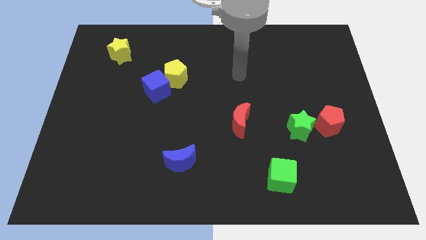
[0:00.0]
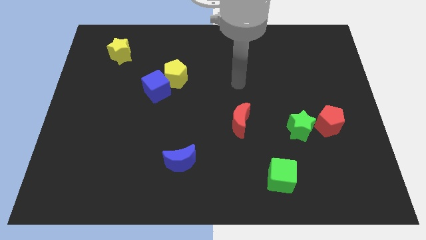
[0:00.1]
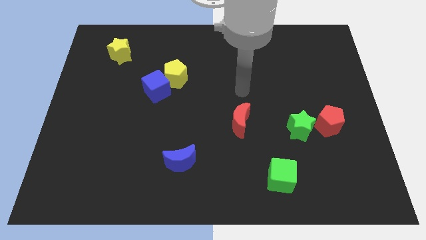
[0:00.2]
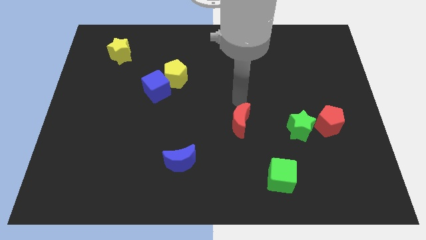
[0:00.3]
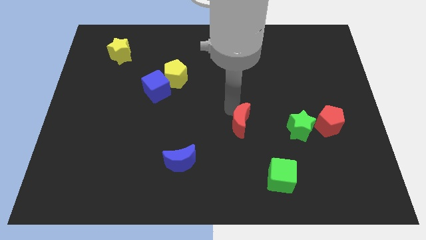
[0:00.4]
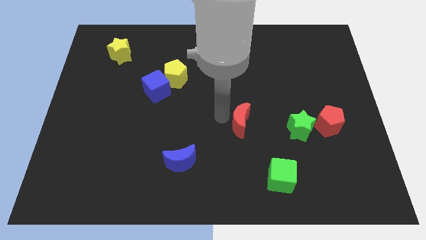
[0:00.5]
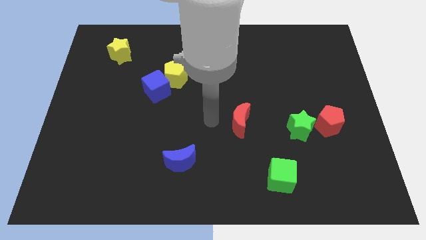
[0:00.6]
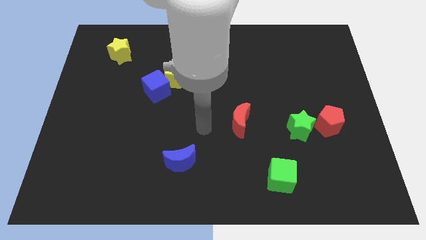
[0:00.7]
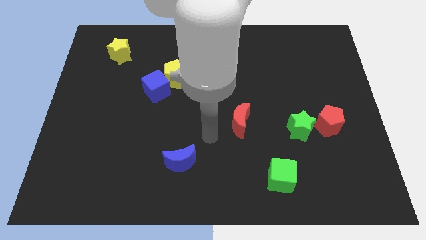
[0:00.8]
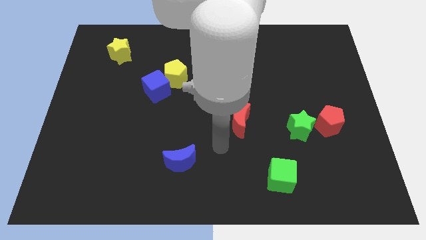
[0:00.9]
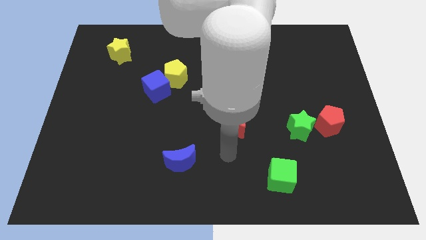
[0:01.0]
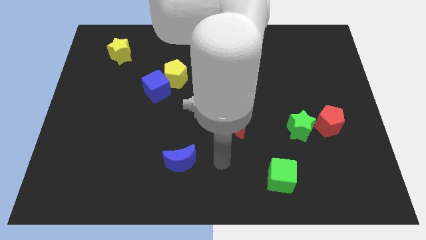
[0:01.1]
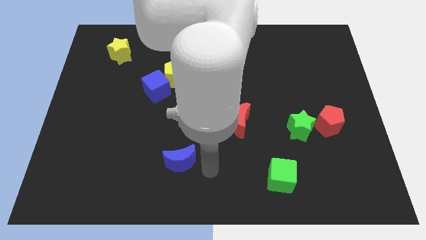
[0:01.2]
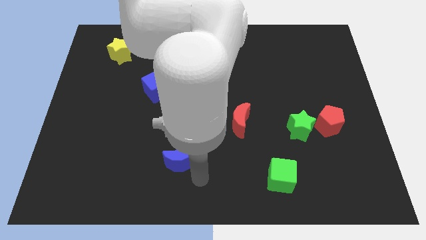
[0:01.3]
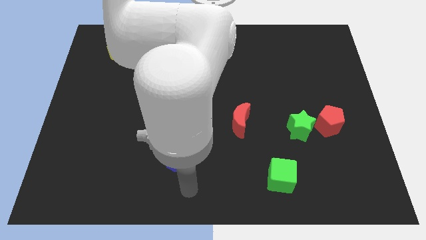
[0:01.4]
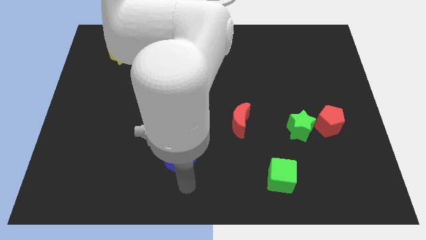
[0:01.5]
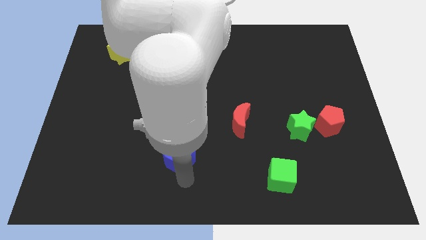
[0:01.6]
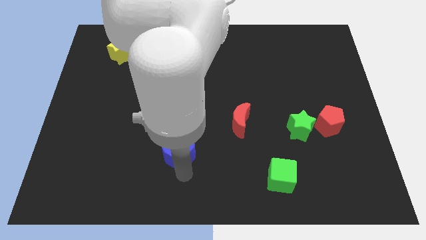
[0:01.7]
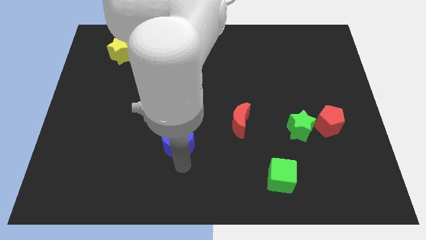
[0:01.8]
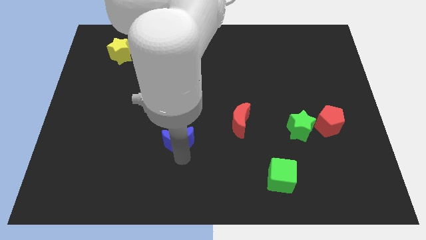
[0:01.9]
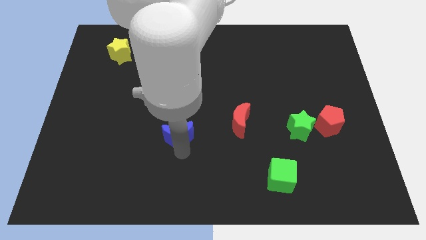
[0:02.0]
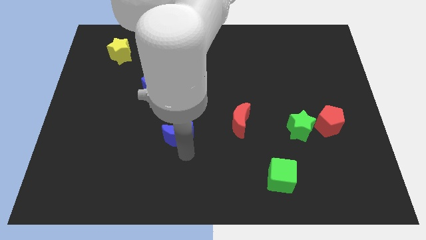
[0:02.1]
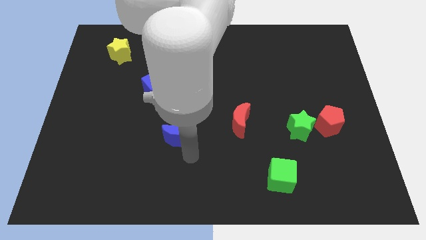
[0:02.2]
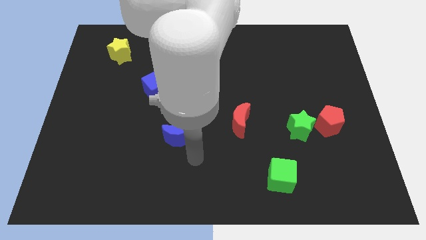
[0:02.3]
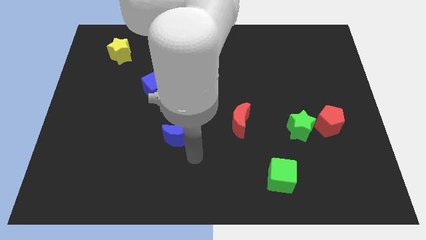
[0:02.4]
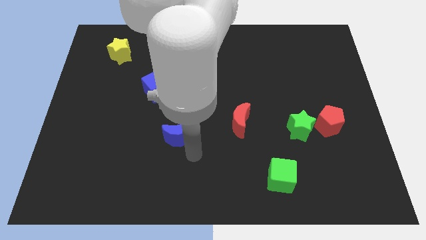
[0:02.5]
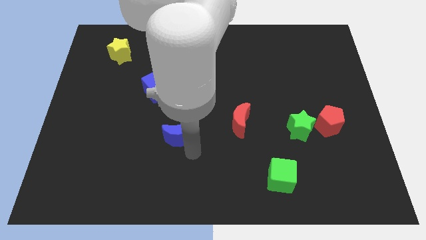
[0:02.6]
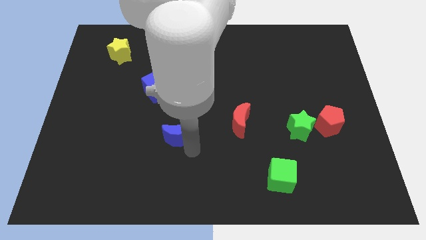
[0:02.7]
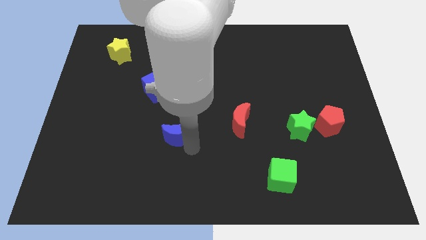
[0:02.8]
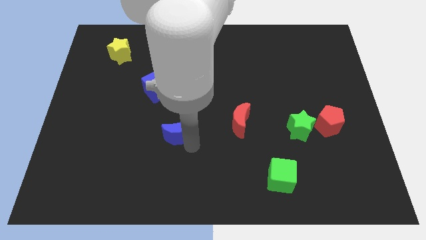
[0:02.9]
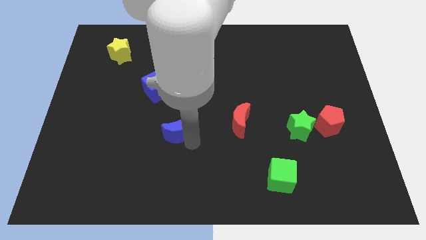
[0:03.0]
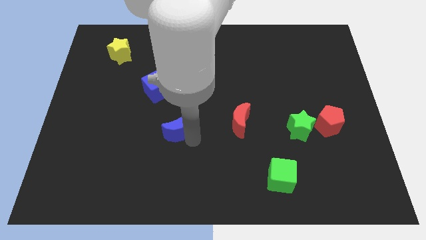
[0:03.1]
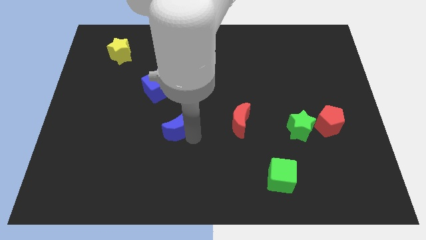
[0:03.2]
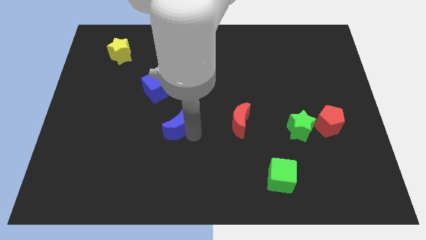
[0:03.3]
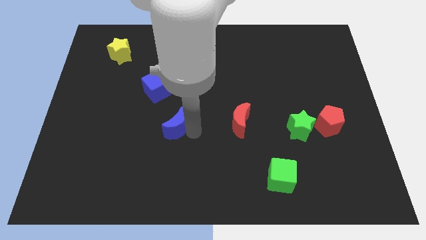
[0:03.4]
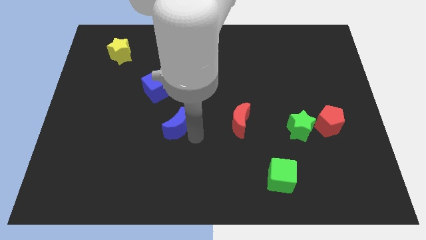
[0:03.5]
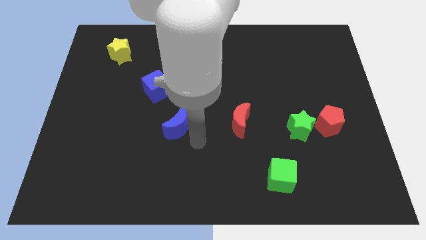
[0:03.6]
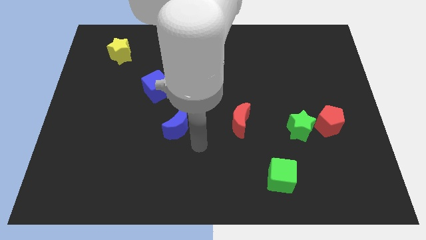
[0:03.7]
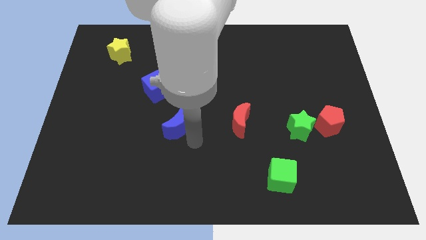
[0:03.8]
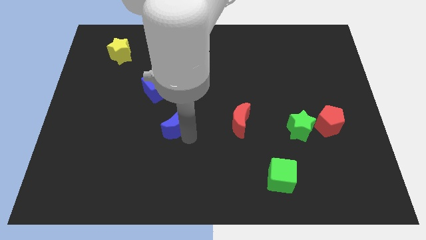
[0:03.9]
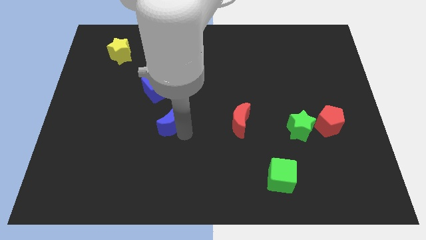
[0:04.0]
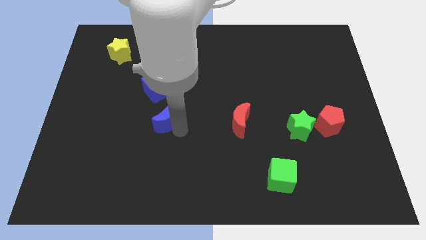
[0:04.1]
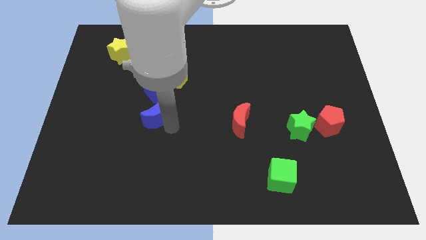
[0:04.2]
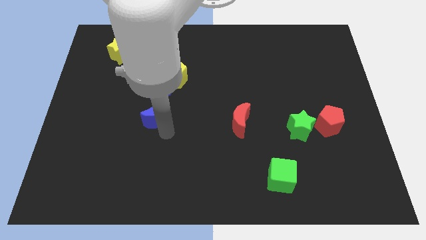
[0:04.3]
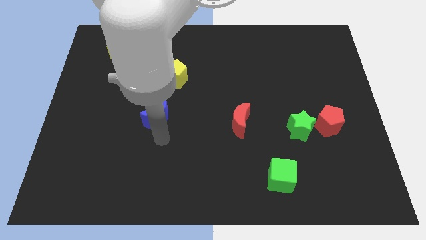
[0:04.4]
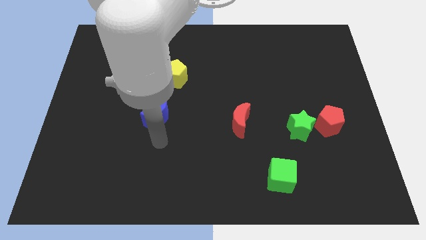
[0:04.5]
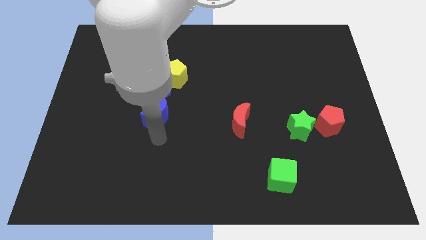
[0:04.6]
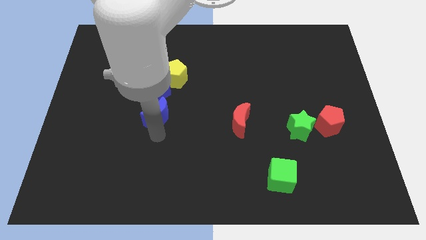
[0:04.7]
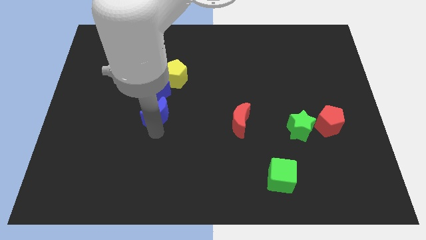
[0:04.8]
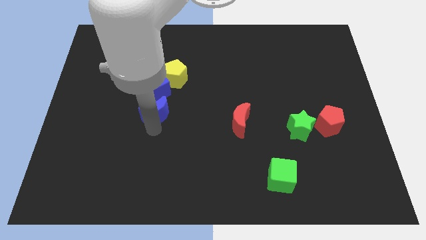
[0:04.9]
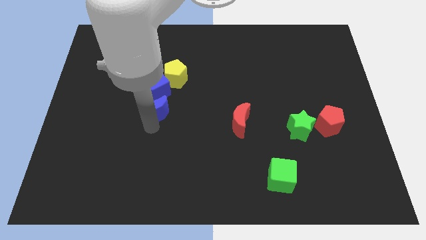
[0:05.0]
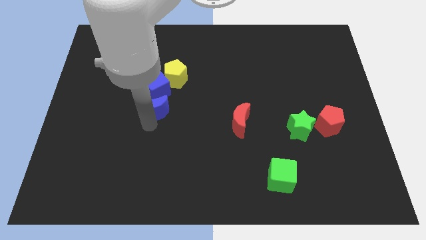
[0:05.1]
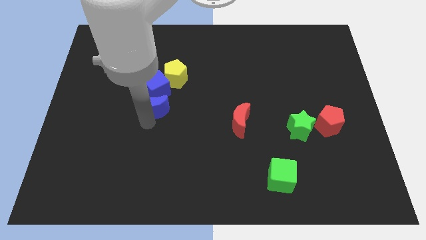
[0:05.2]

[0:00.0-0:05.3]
slide the blue moon towards the blue cube

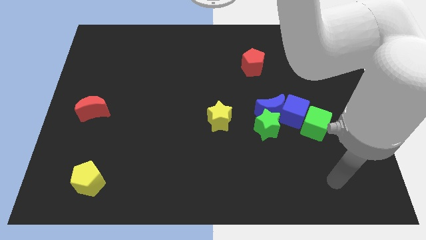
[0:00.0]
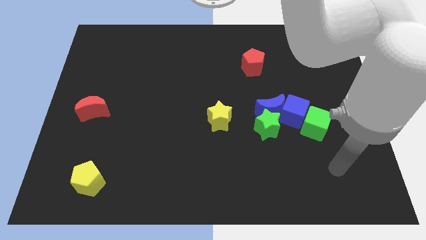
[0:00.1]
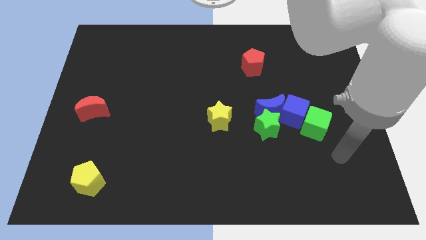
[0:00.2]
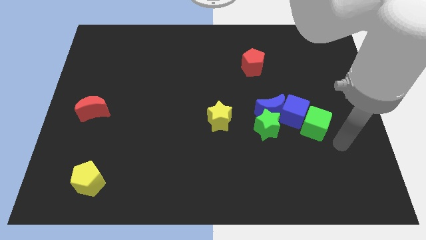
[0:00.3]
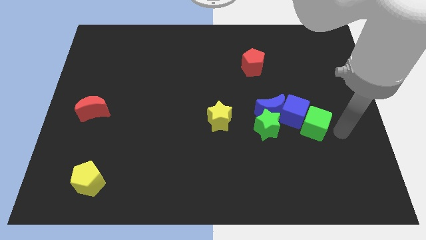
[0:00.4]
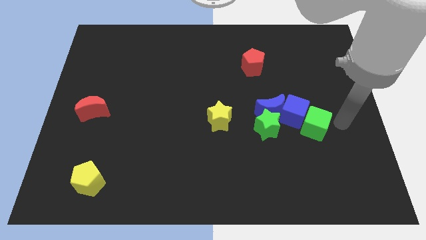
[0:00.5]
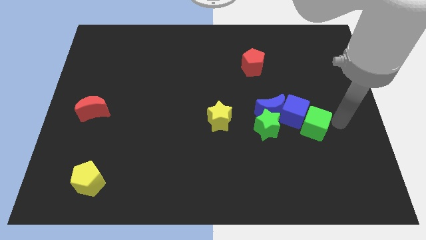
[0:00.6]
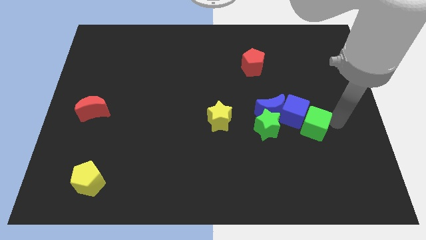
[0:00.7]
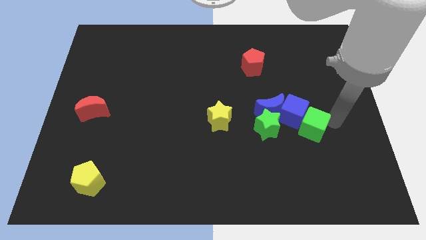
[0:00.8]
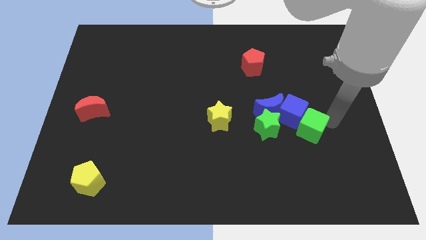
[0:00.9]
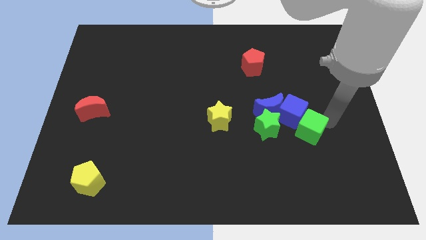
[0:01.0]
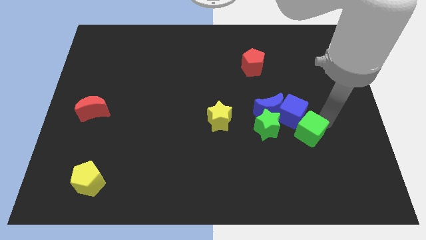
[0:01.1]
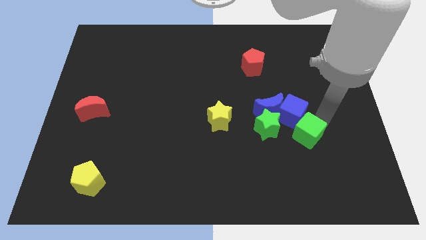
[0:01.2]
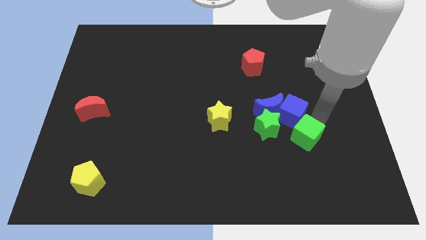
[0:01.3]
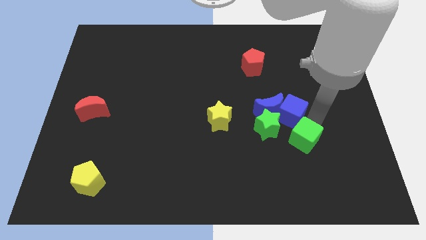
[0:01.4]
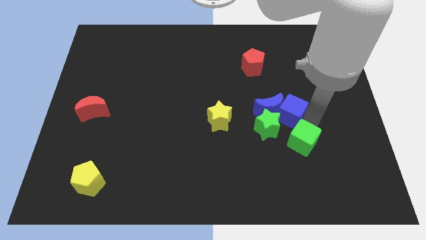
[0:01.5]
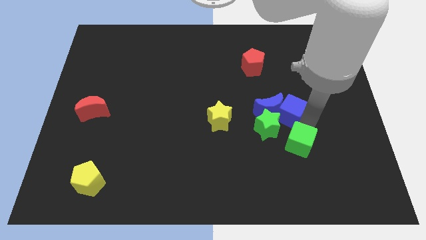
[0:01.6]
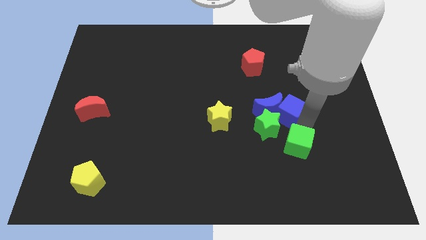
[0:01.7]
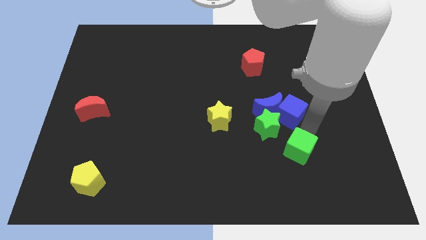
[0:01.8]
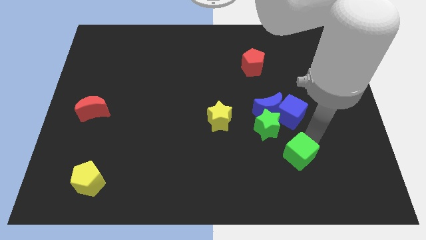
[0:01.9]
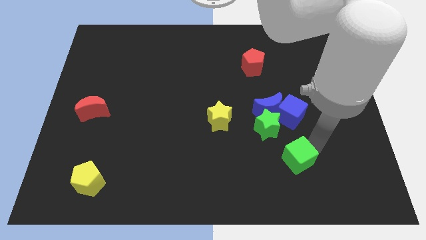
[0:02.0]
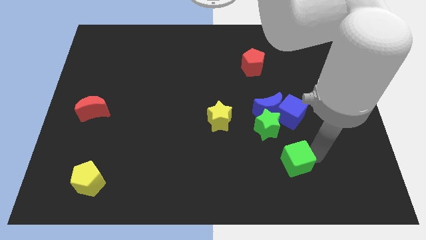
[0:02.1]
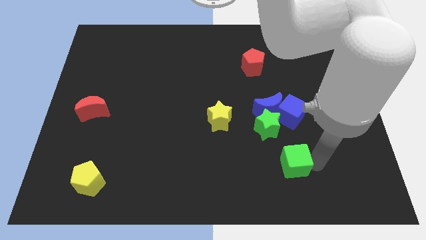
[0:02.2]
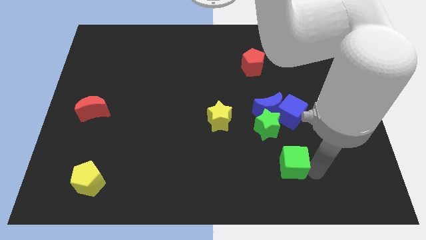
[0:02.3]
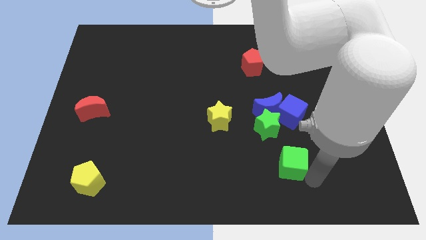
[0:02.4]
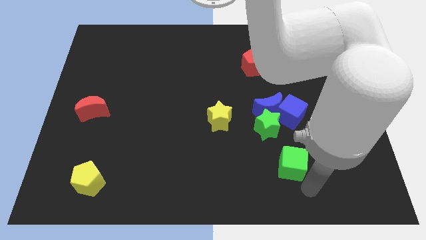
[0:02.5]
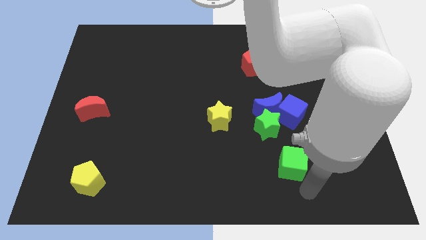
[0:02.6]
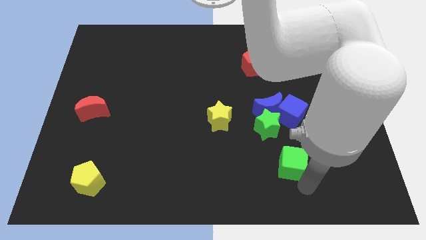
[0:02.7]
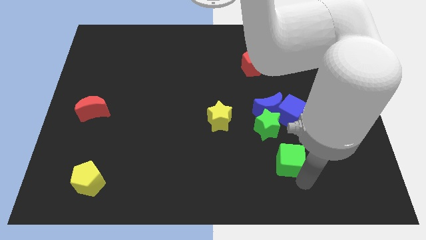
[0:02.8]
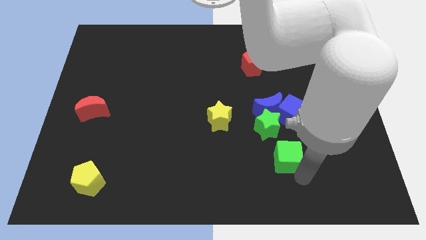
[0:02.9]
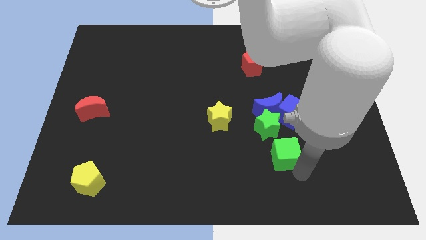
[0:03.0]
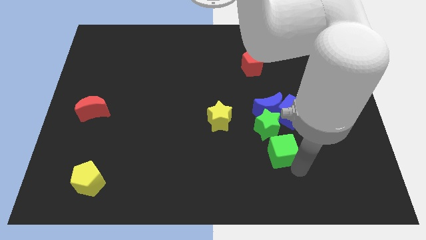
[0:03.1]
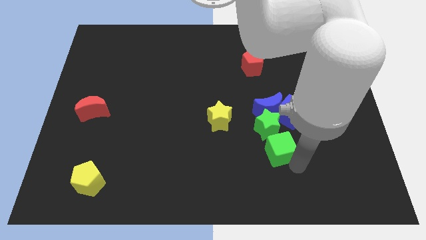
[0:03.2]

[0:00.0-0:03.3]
move the green cube to the green star
